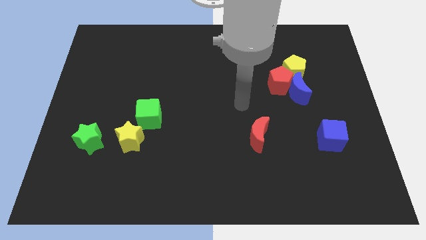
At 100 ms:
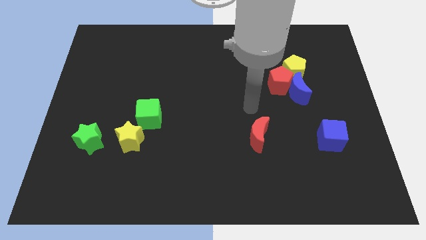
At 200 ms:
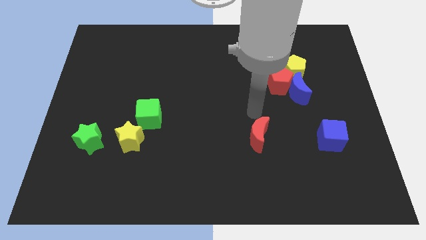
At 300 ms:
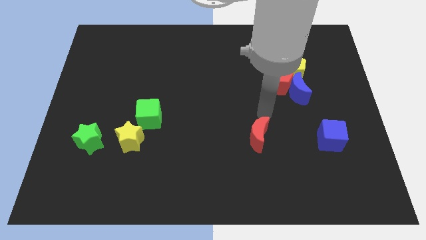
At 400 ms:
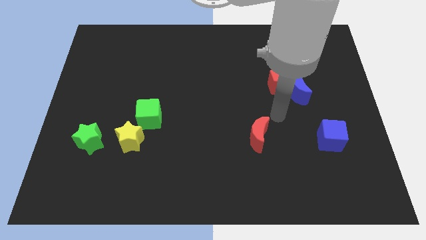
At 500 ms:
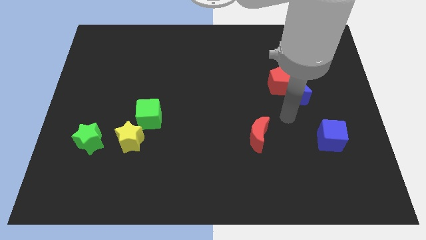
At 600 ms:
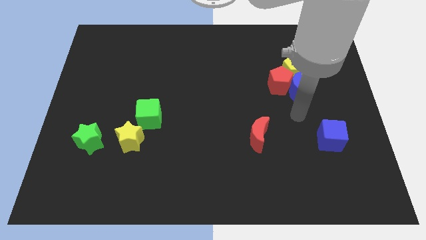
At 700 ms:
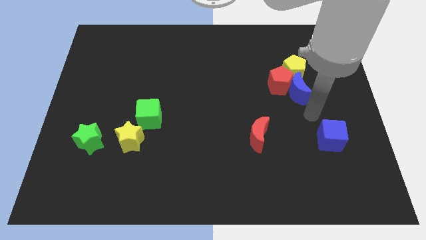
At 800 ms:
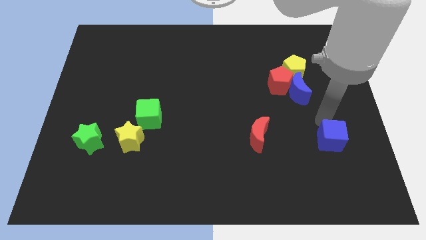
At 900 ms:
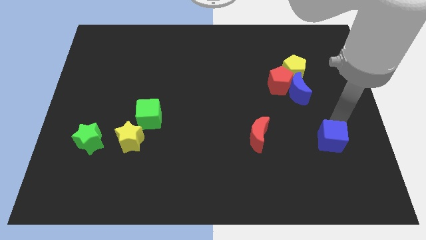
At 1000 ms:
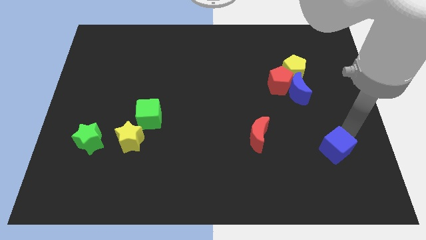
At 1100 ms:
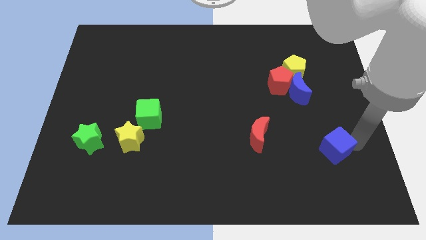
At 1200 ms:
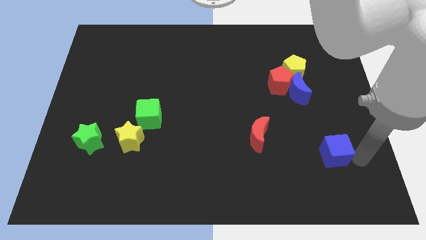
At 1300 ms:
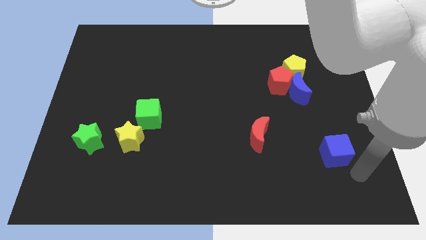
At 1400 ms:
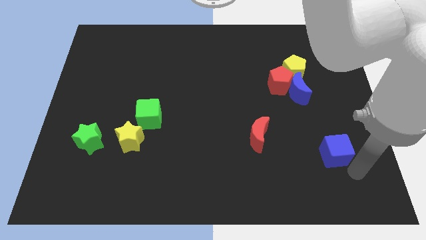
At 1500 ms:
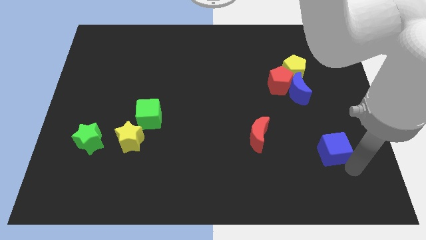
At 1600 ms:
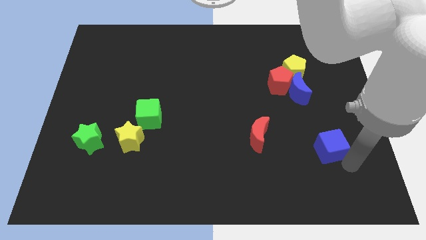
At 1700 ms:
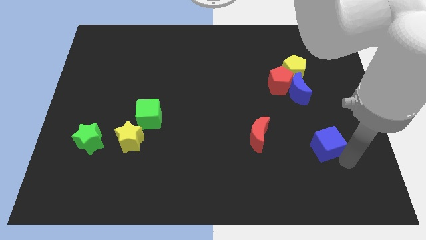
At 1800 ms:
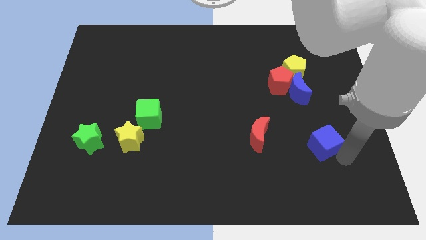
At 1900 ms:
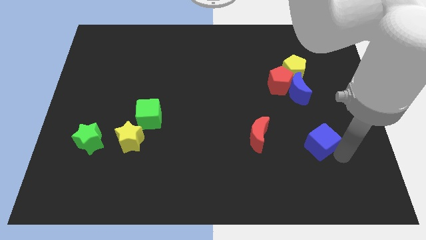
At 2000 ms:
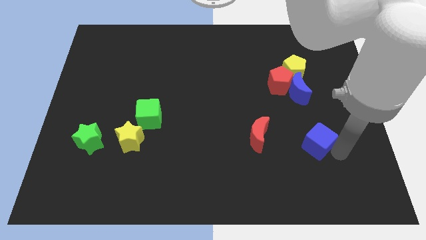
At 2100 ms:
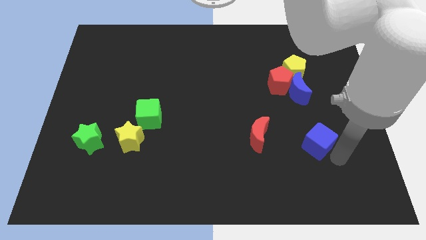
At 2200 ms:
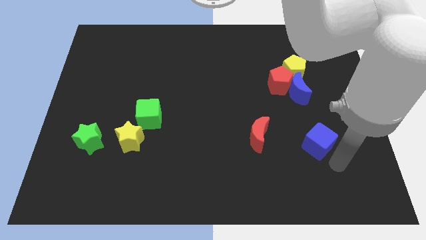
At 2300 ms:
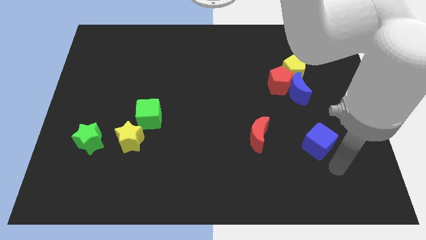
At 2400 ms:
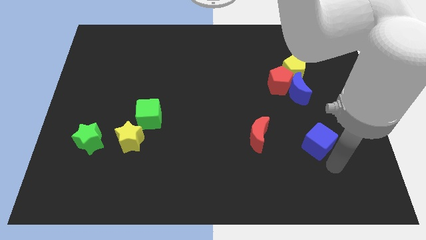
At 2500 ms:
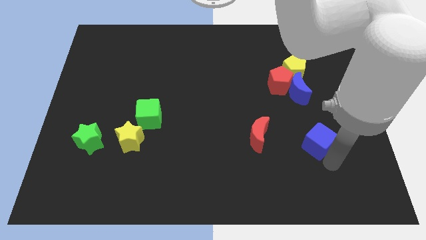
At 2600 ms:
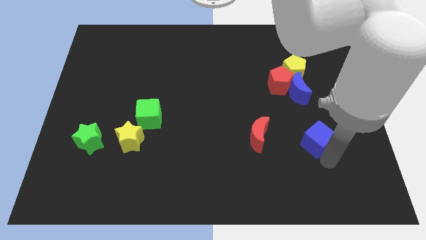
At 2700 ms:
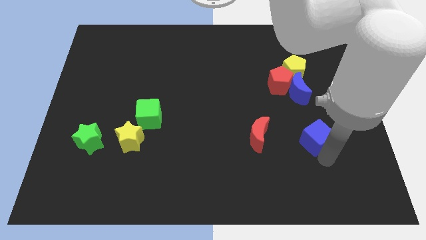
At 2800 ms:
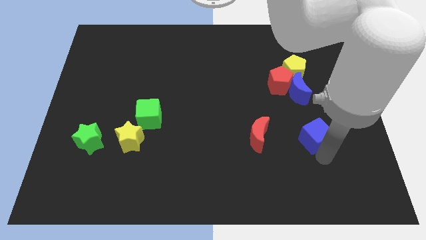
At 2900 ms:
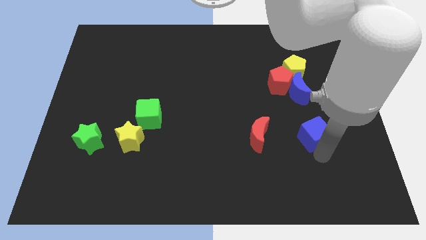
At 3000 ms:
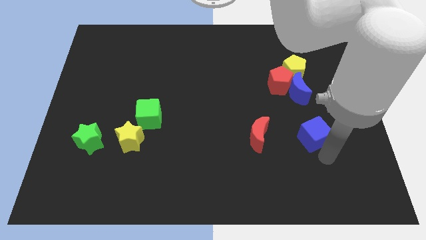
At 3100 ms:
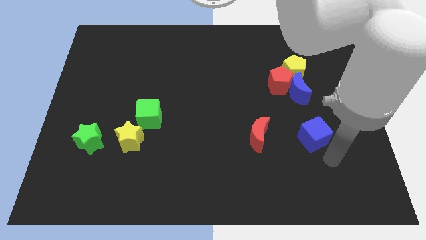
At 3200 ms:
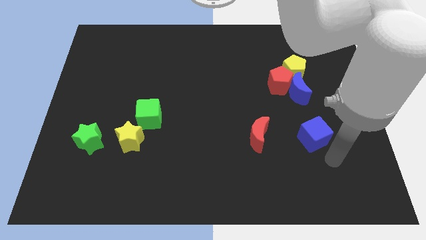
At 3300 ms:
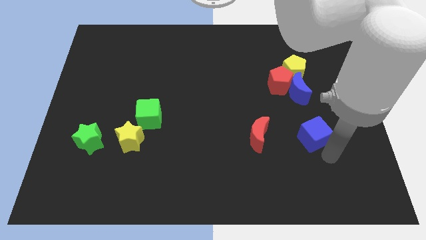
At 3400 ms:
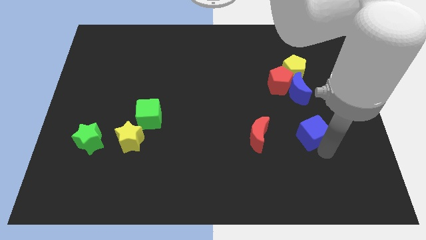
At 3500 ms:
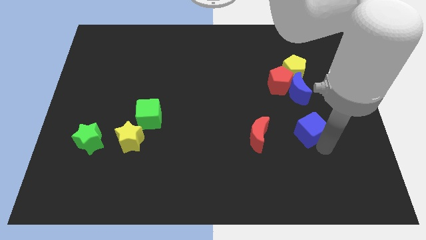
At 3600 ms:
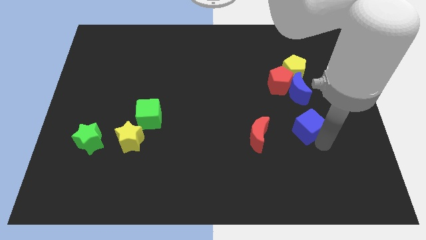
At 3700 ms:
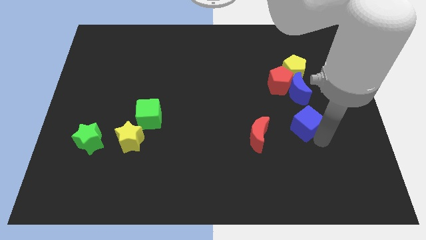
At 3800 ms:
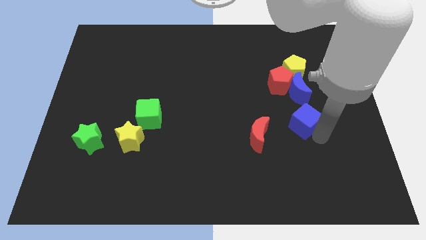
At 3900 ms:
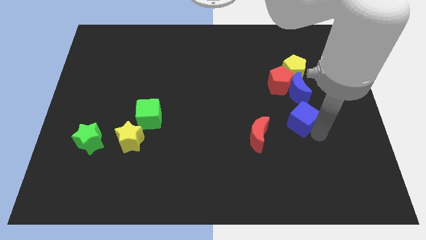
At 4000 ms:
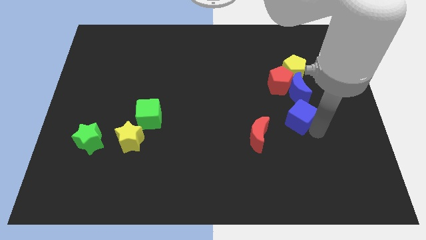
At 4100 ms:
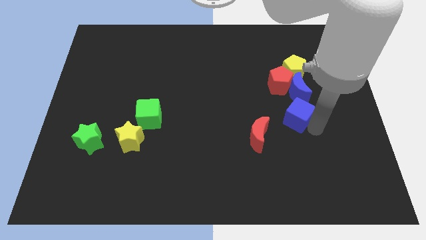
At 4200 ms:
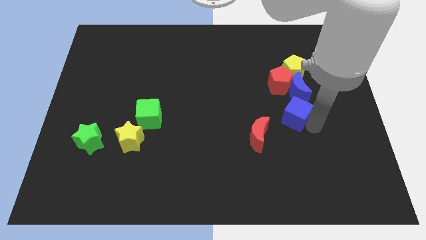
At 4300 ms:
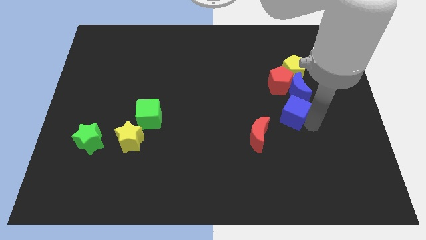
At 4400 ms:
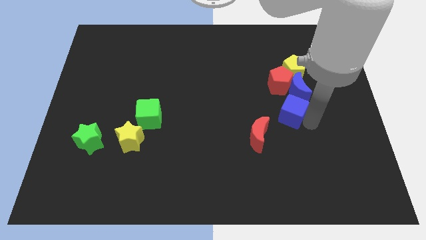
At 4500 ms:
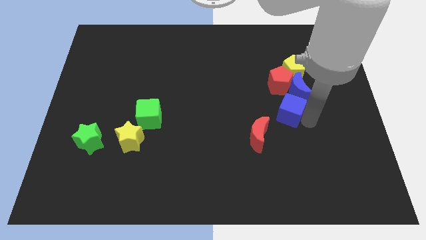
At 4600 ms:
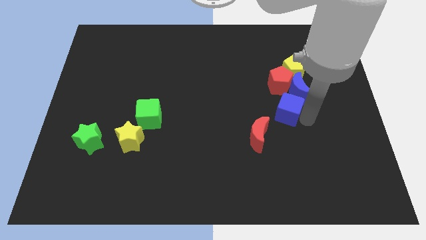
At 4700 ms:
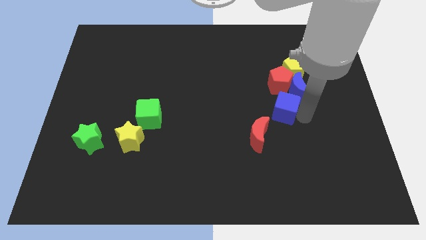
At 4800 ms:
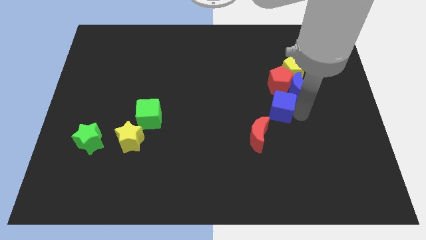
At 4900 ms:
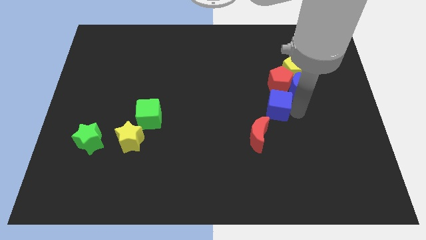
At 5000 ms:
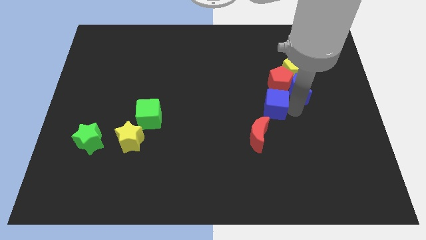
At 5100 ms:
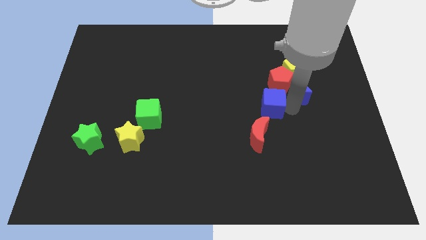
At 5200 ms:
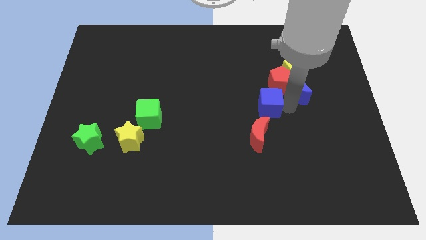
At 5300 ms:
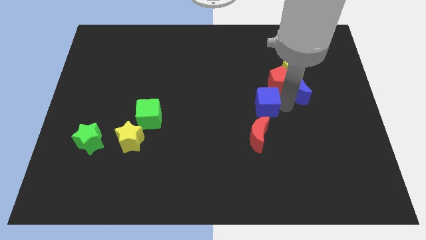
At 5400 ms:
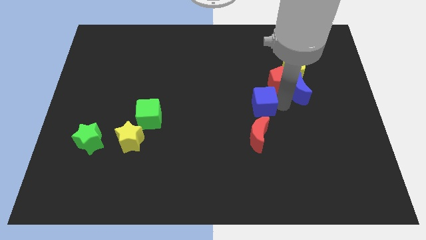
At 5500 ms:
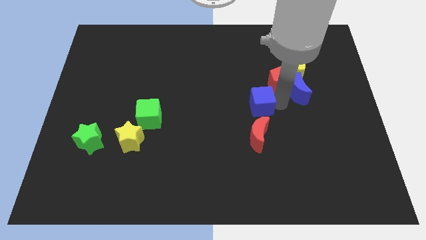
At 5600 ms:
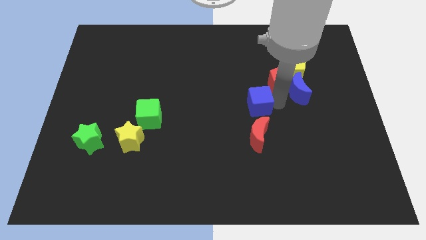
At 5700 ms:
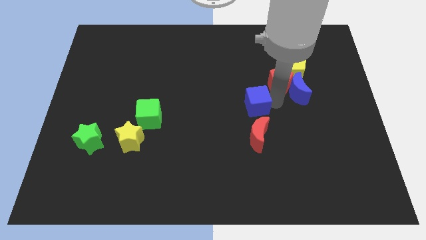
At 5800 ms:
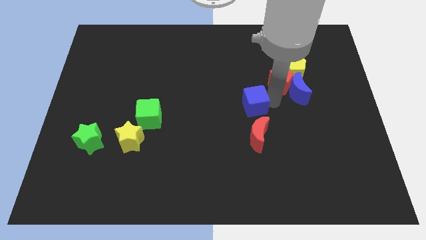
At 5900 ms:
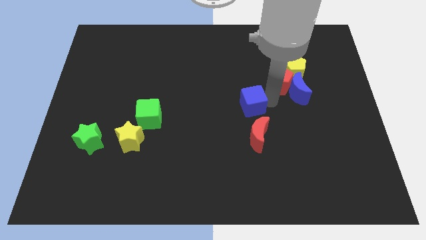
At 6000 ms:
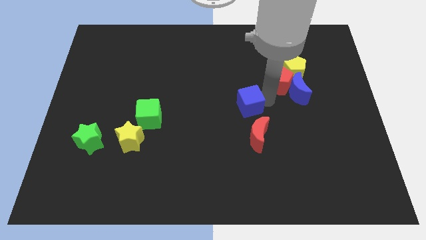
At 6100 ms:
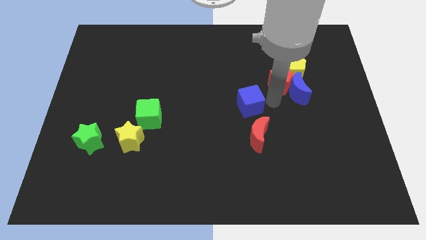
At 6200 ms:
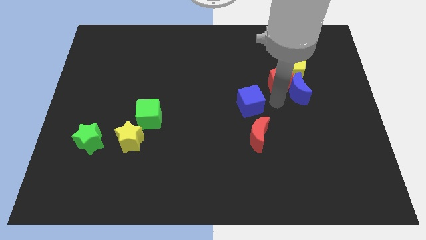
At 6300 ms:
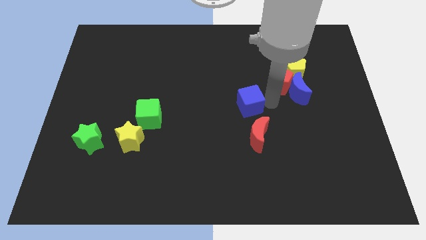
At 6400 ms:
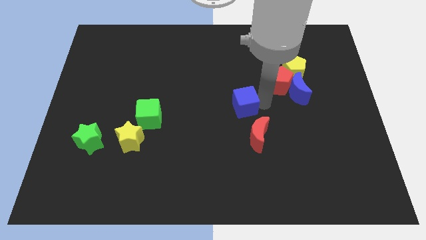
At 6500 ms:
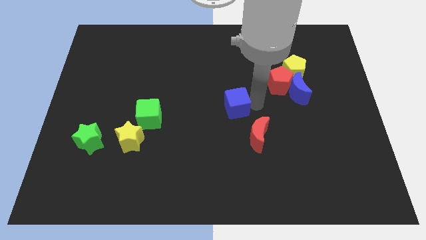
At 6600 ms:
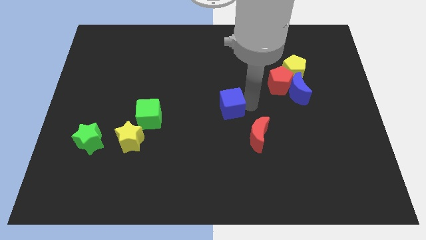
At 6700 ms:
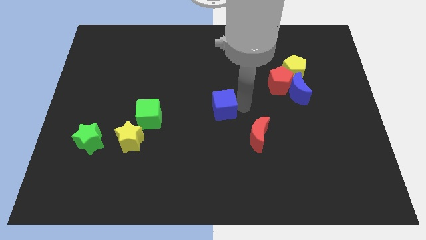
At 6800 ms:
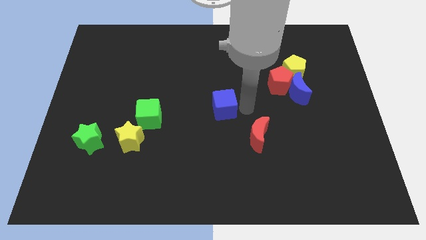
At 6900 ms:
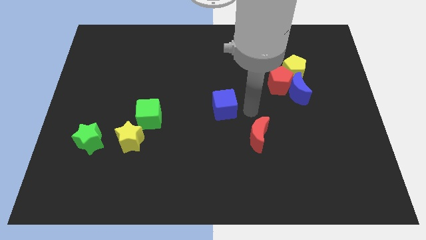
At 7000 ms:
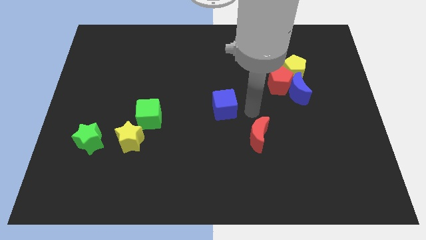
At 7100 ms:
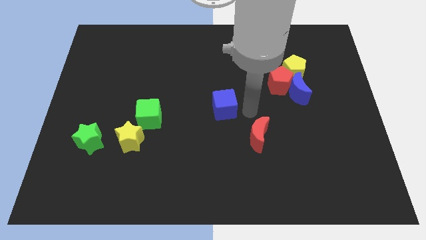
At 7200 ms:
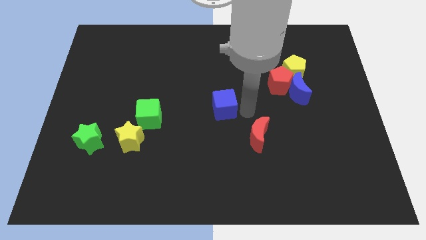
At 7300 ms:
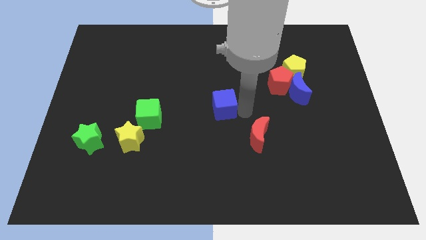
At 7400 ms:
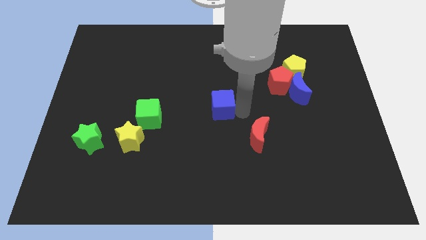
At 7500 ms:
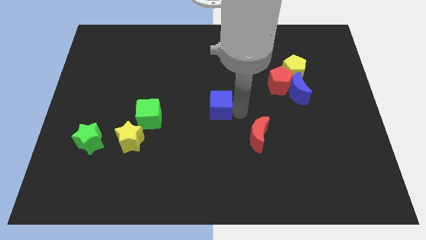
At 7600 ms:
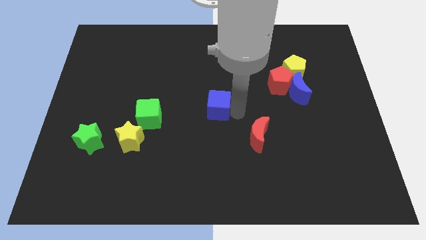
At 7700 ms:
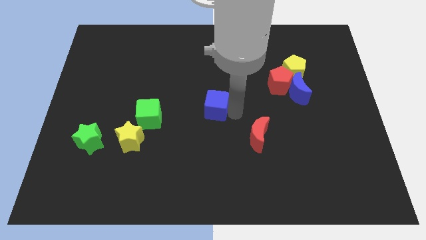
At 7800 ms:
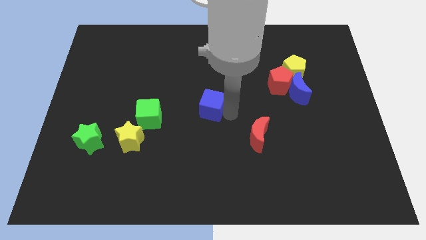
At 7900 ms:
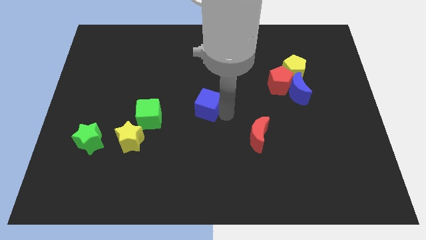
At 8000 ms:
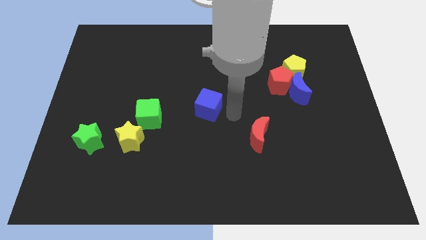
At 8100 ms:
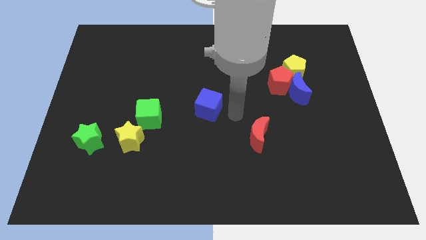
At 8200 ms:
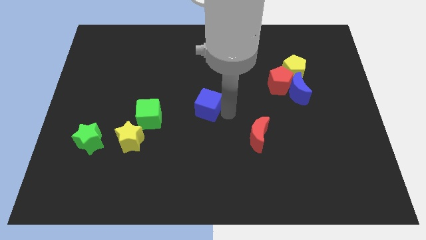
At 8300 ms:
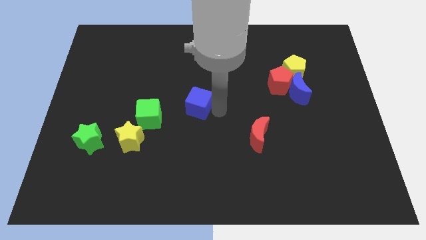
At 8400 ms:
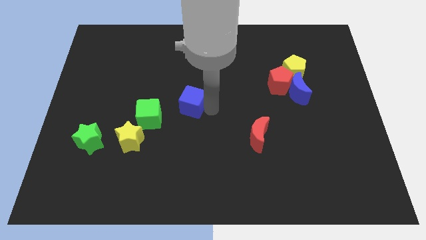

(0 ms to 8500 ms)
put the blue cube to the top right side of the green cube

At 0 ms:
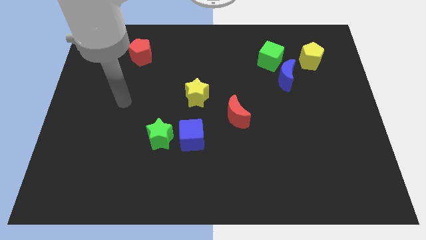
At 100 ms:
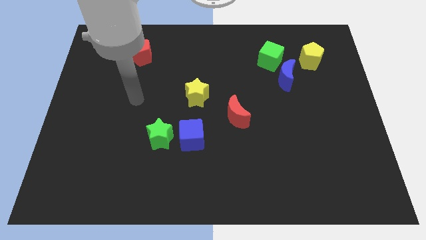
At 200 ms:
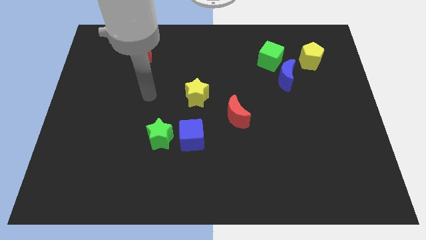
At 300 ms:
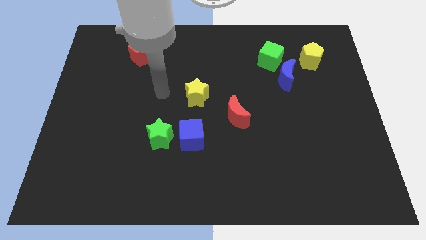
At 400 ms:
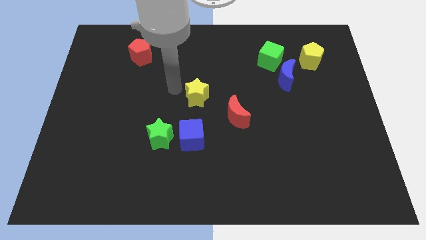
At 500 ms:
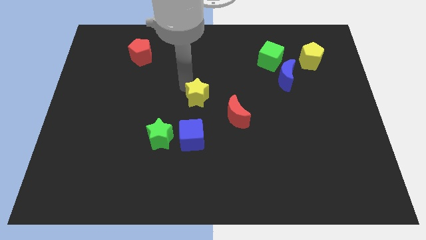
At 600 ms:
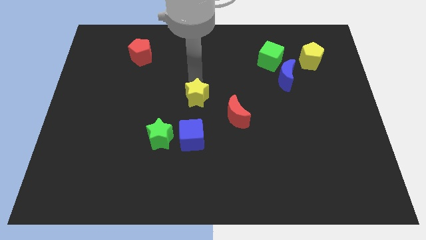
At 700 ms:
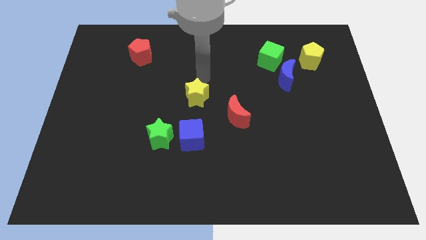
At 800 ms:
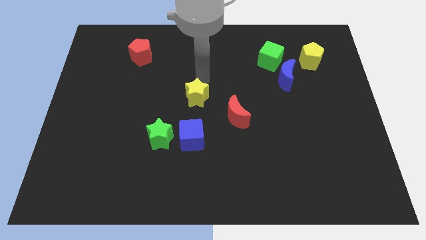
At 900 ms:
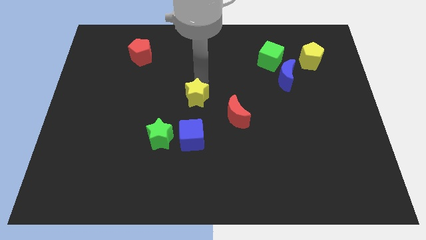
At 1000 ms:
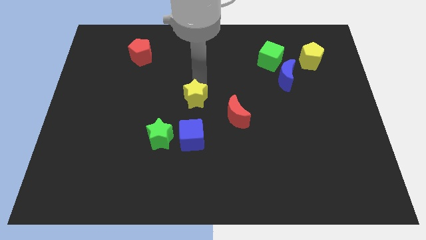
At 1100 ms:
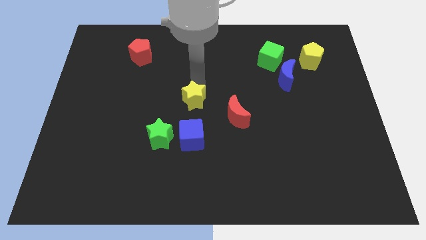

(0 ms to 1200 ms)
put the yellow star just left of the red moon
